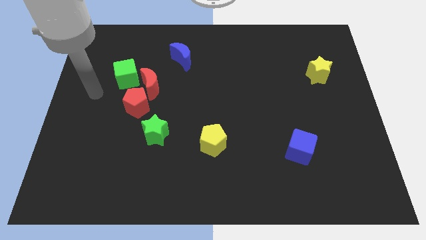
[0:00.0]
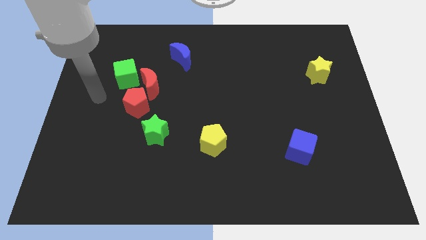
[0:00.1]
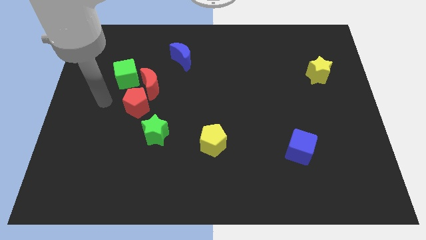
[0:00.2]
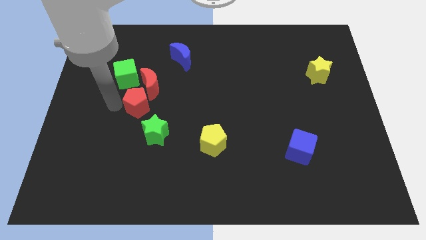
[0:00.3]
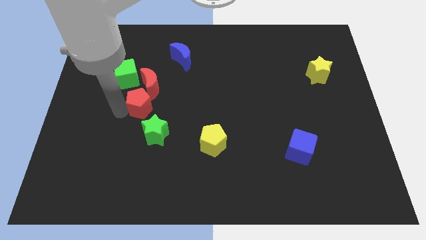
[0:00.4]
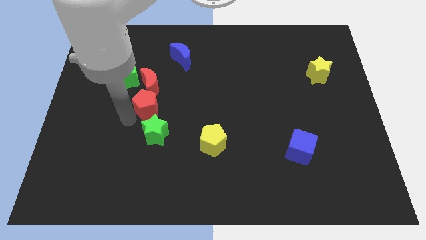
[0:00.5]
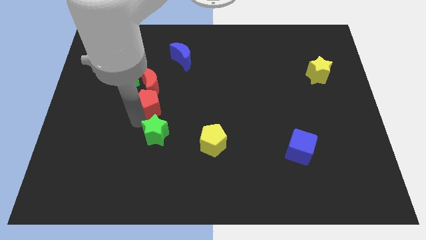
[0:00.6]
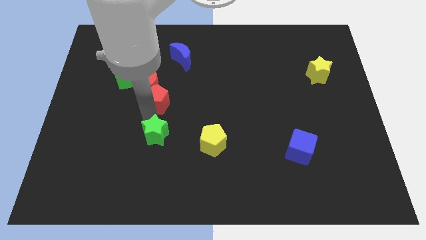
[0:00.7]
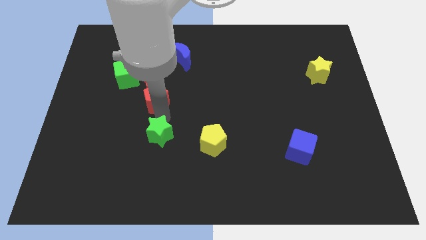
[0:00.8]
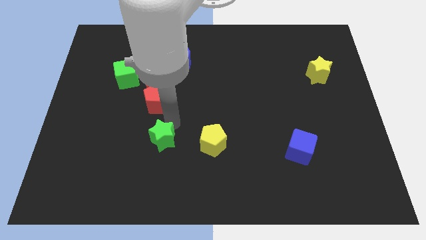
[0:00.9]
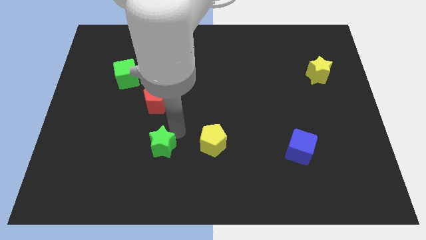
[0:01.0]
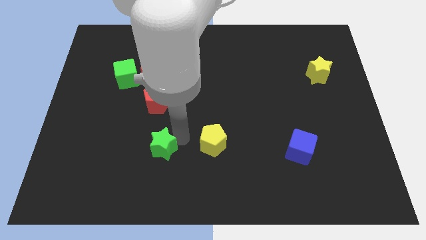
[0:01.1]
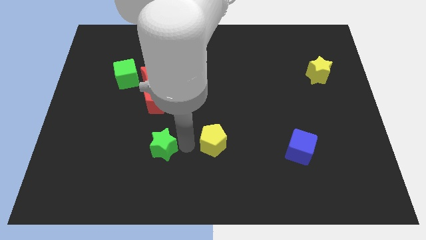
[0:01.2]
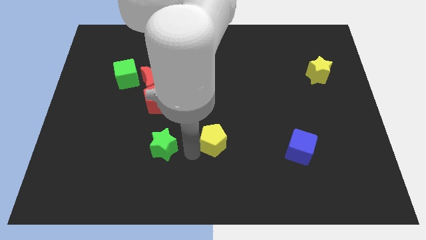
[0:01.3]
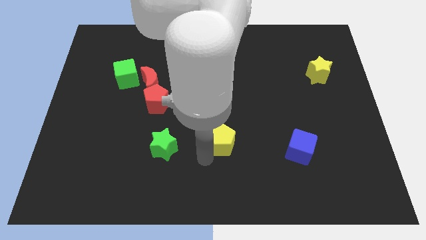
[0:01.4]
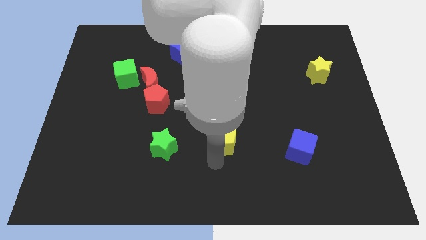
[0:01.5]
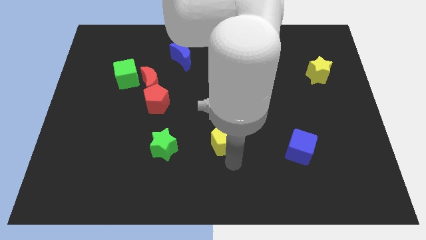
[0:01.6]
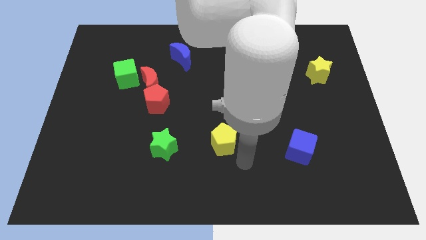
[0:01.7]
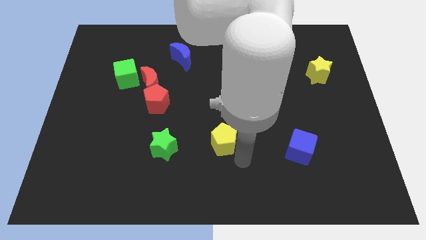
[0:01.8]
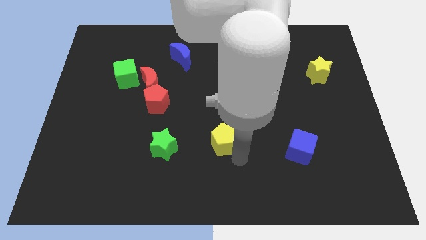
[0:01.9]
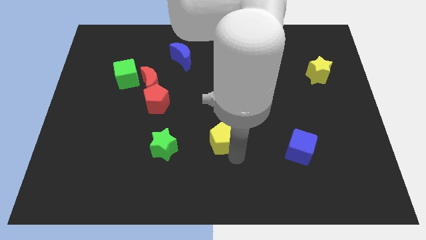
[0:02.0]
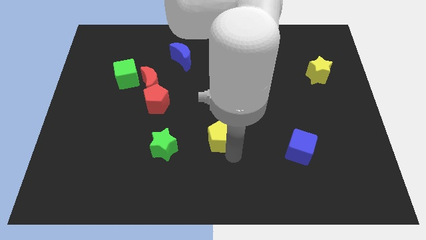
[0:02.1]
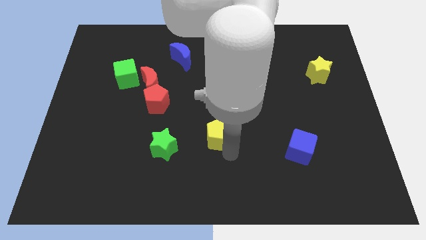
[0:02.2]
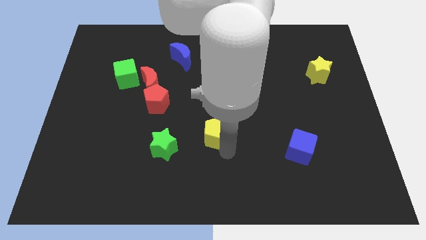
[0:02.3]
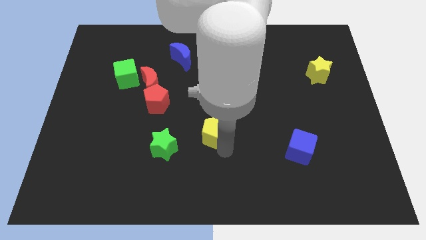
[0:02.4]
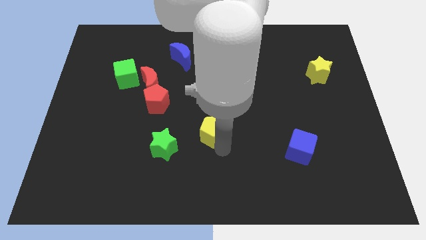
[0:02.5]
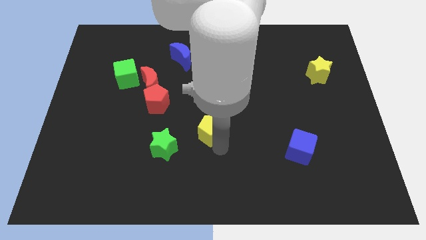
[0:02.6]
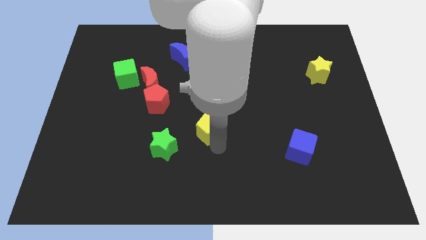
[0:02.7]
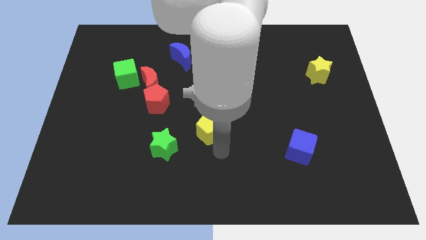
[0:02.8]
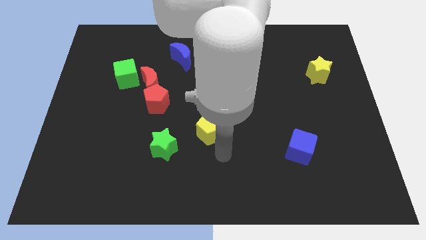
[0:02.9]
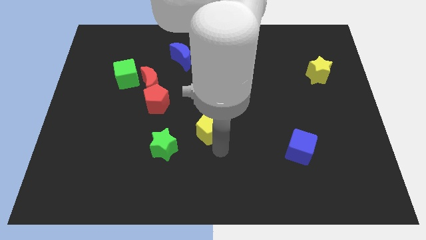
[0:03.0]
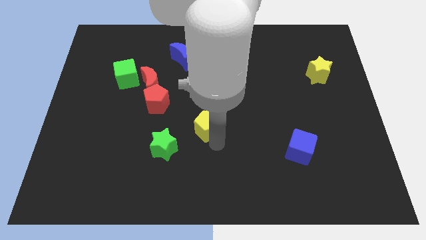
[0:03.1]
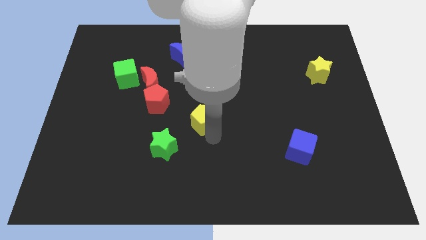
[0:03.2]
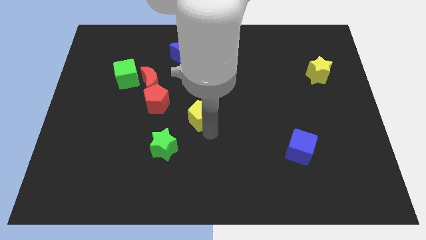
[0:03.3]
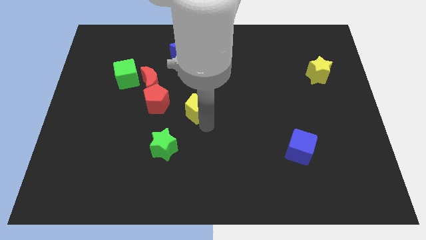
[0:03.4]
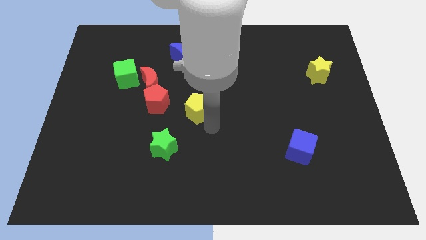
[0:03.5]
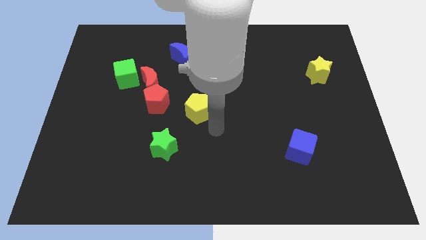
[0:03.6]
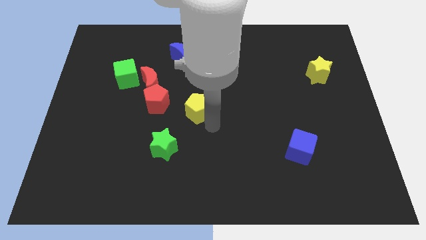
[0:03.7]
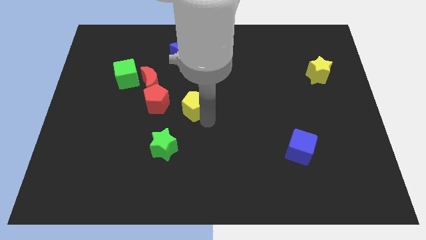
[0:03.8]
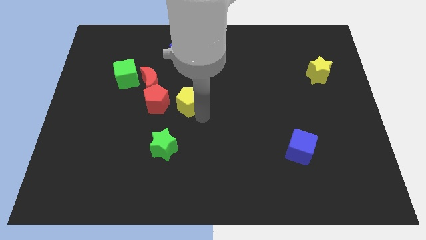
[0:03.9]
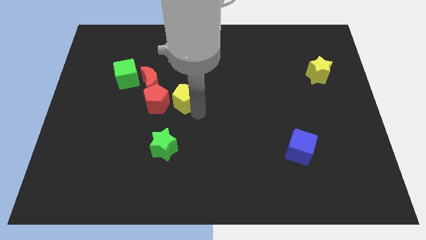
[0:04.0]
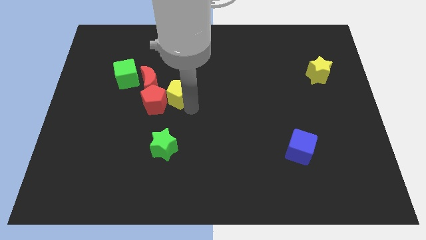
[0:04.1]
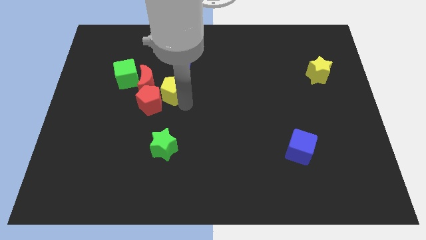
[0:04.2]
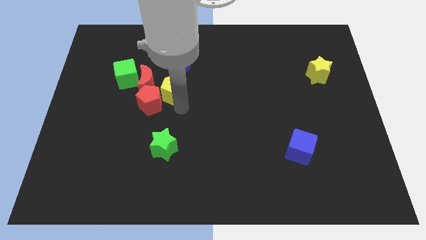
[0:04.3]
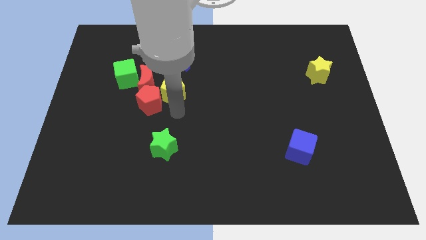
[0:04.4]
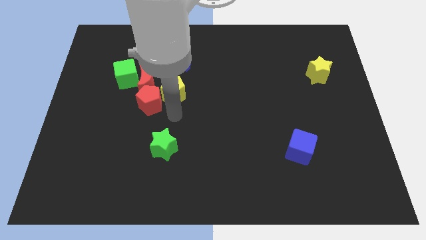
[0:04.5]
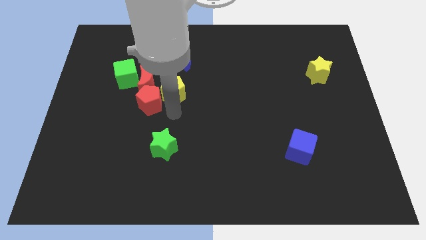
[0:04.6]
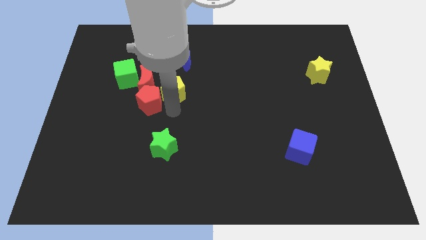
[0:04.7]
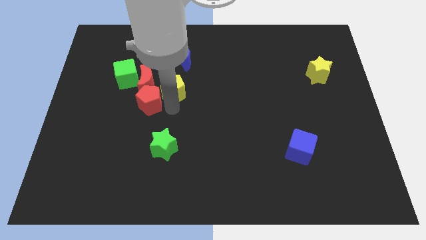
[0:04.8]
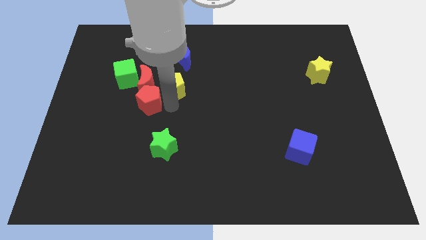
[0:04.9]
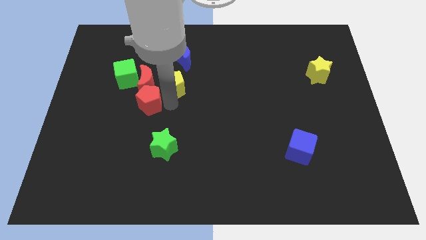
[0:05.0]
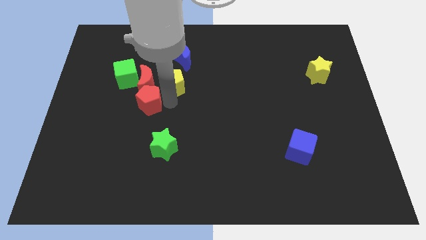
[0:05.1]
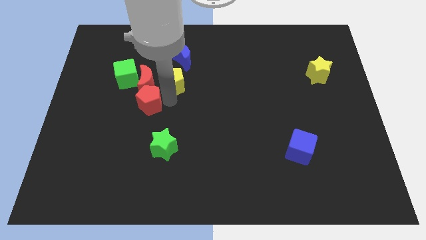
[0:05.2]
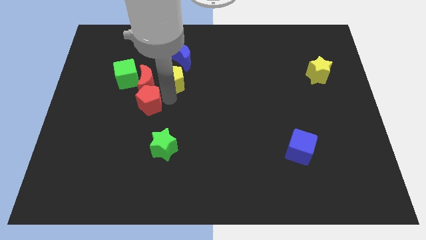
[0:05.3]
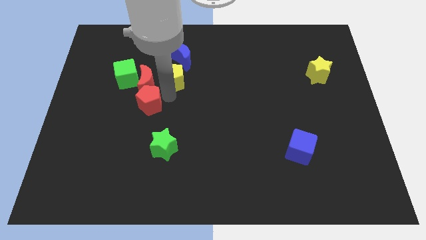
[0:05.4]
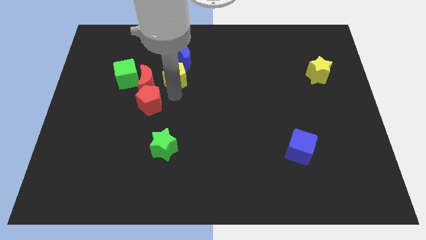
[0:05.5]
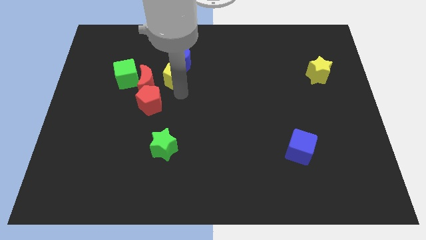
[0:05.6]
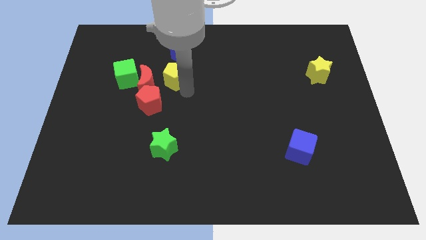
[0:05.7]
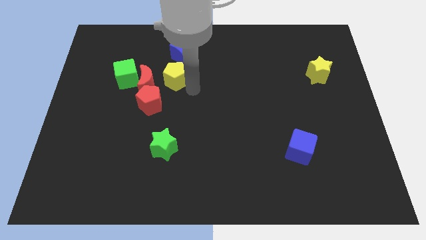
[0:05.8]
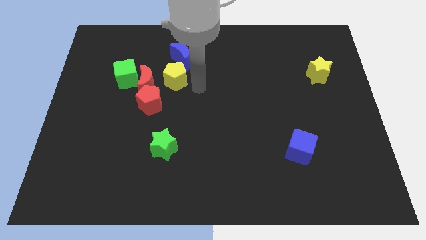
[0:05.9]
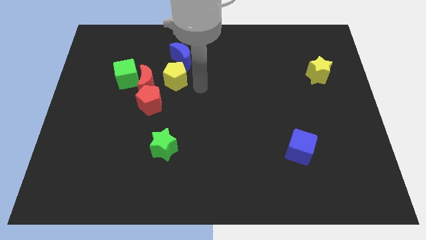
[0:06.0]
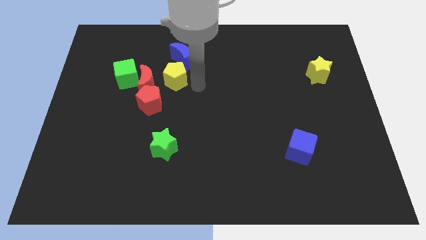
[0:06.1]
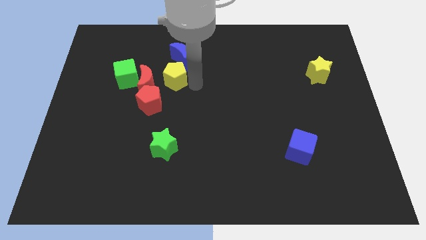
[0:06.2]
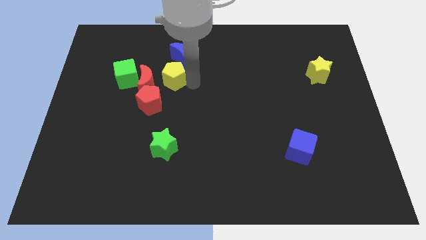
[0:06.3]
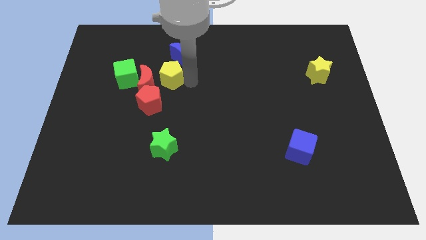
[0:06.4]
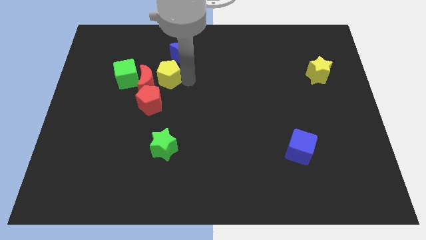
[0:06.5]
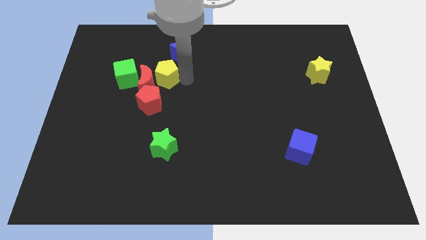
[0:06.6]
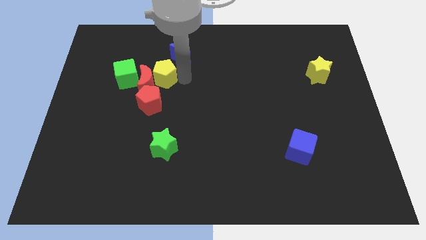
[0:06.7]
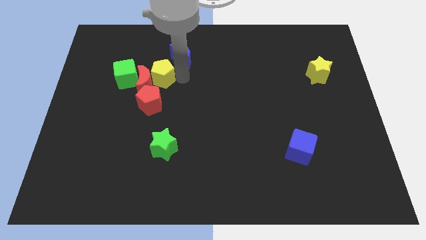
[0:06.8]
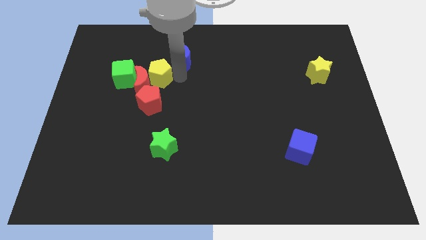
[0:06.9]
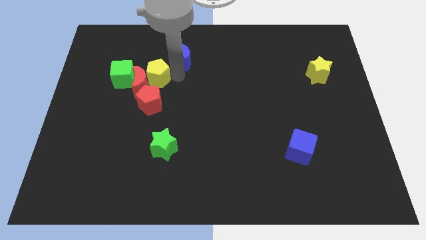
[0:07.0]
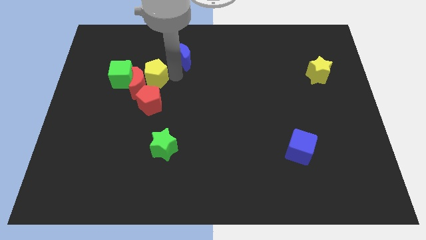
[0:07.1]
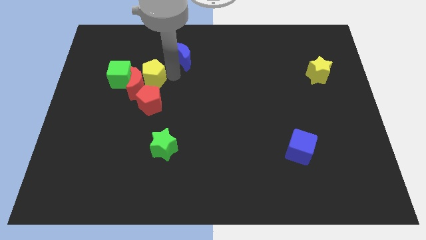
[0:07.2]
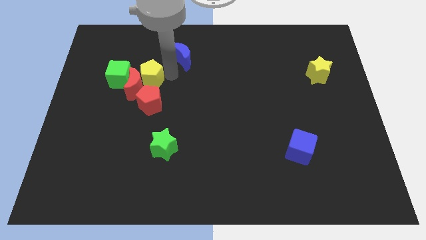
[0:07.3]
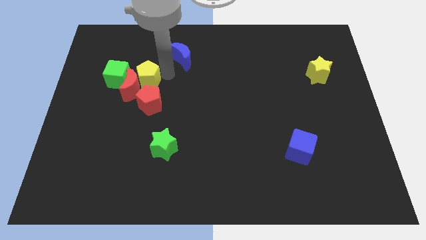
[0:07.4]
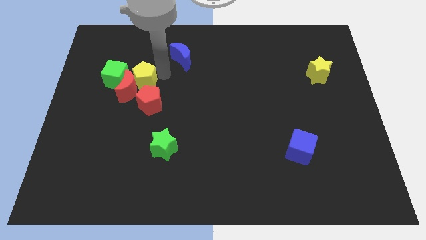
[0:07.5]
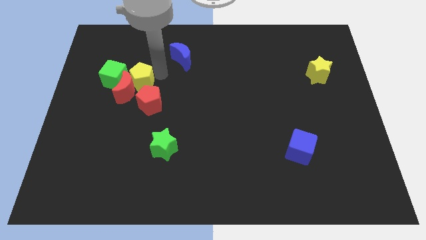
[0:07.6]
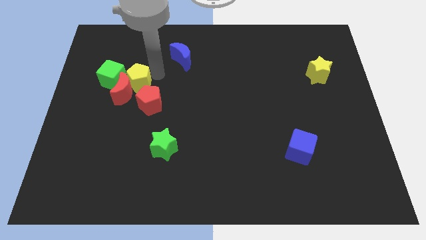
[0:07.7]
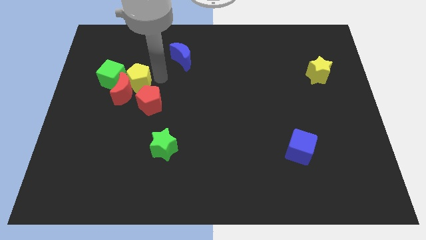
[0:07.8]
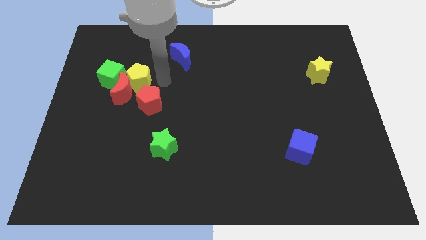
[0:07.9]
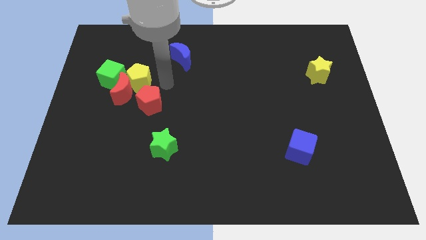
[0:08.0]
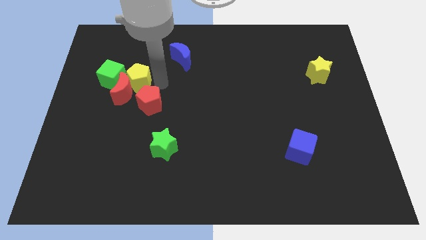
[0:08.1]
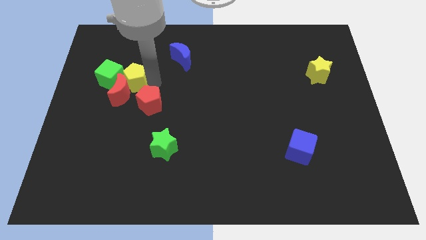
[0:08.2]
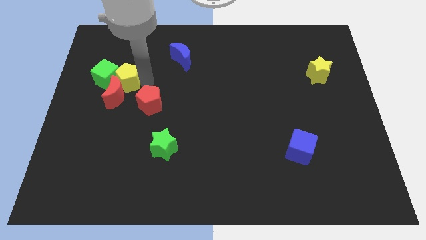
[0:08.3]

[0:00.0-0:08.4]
slide the yellow pentagon close to the green cube
